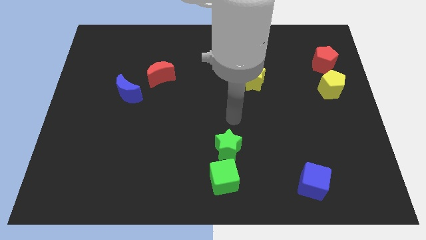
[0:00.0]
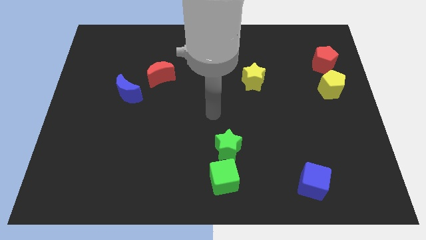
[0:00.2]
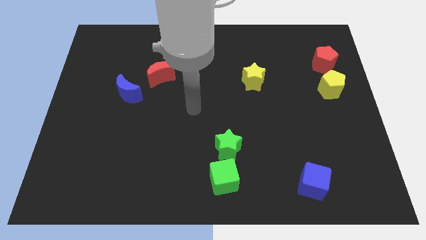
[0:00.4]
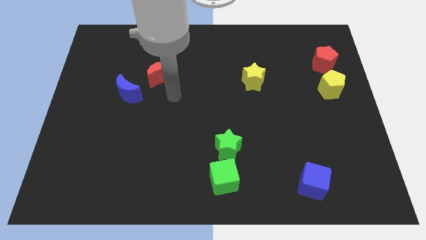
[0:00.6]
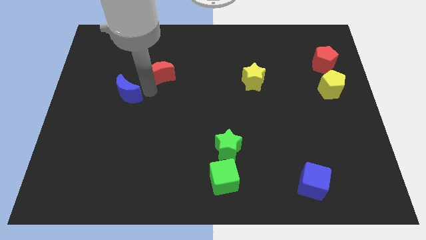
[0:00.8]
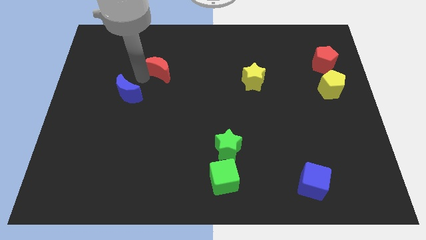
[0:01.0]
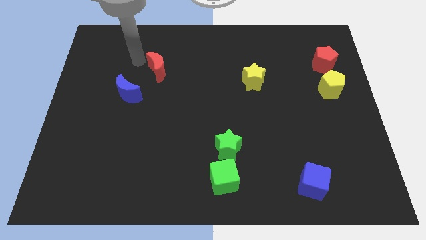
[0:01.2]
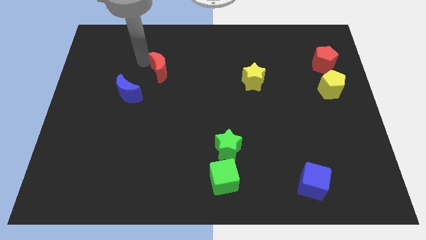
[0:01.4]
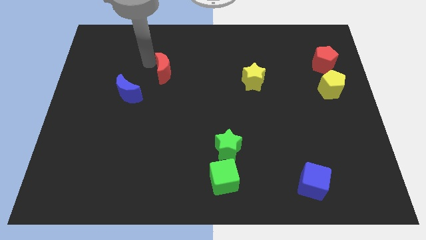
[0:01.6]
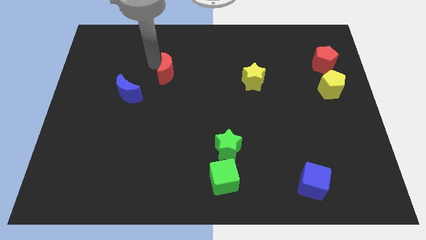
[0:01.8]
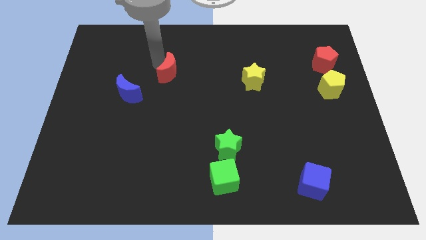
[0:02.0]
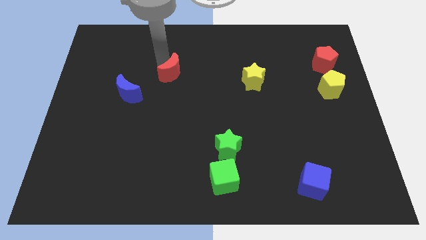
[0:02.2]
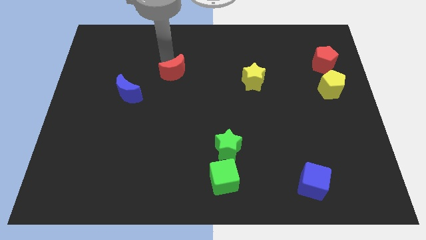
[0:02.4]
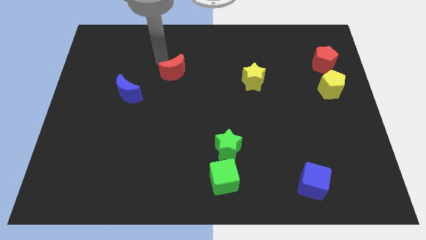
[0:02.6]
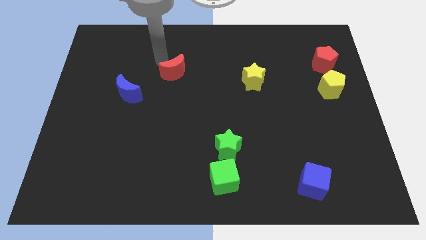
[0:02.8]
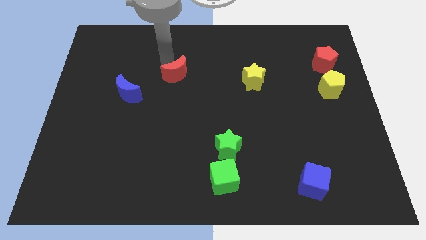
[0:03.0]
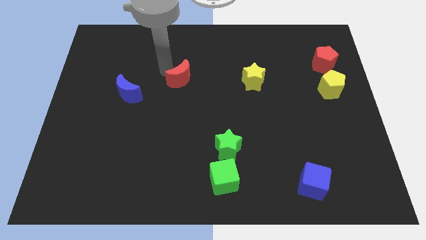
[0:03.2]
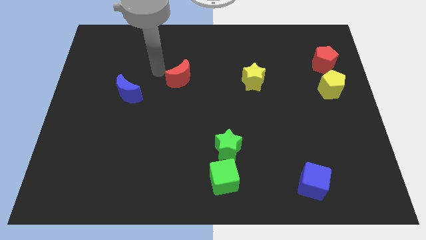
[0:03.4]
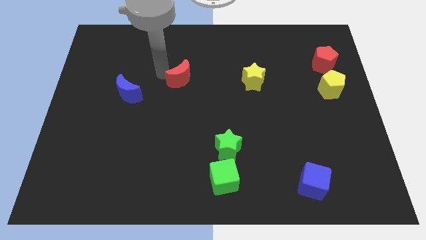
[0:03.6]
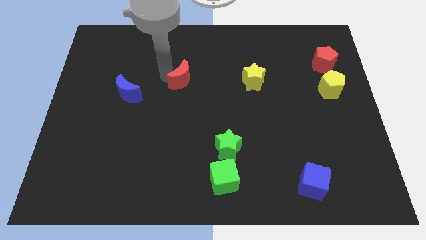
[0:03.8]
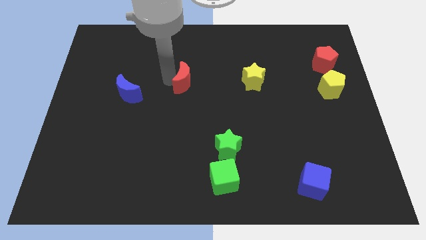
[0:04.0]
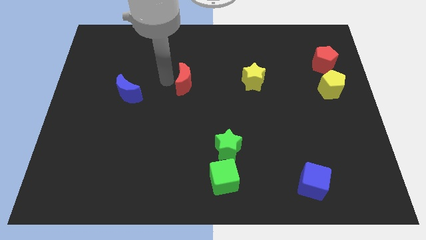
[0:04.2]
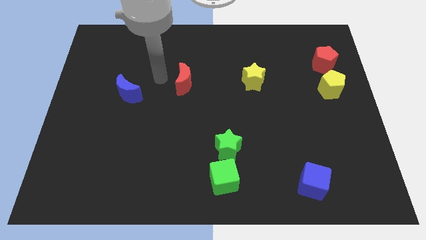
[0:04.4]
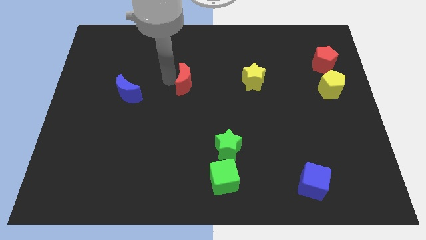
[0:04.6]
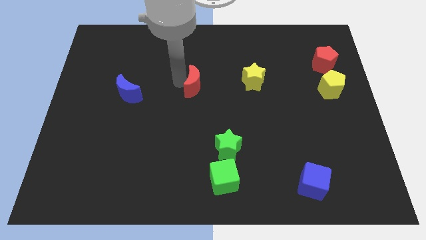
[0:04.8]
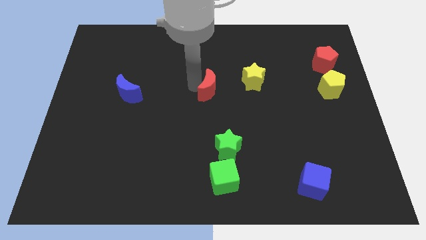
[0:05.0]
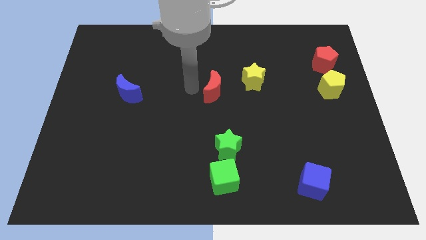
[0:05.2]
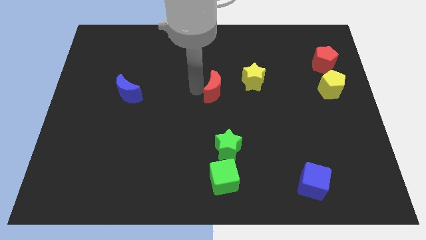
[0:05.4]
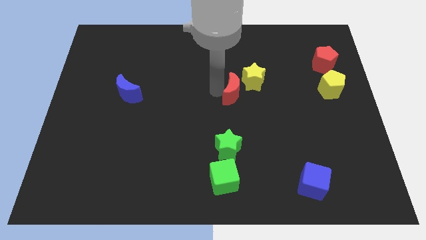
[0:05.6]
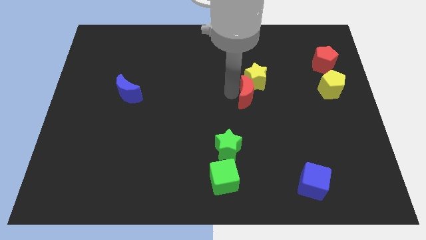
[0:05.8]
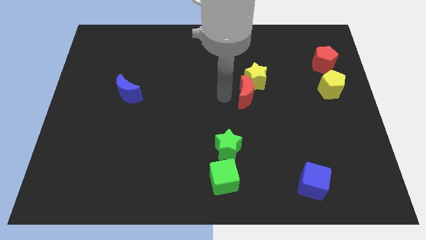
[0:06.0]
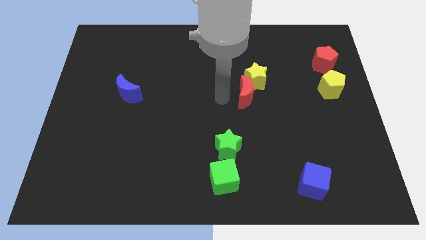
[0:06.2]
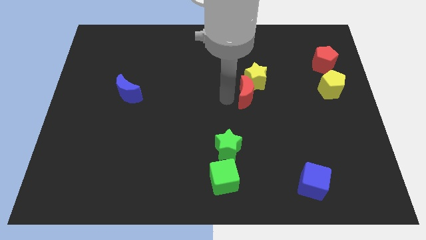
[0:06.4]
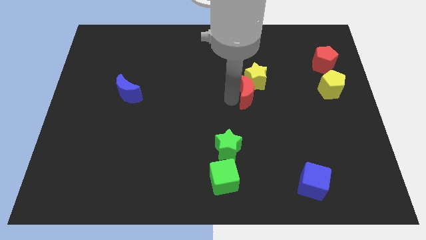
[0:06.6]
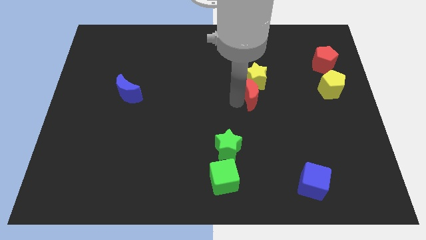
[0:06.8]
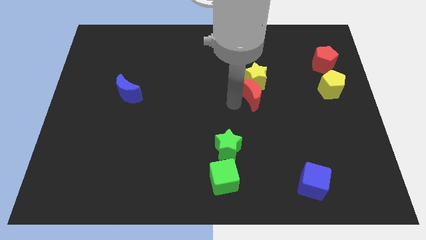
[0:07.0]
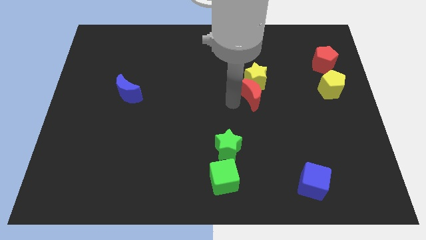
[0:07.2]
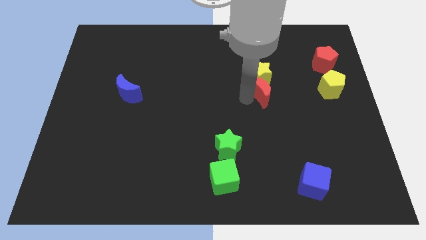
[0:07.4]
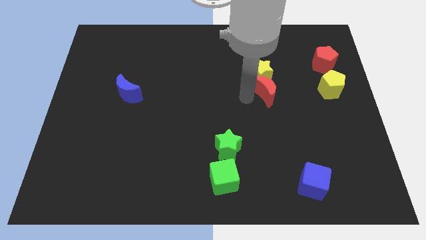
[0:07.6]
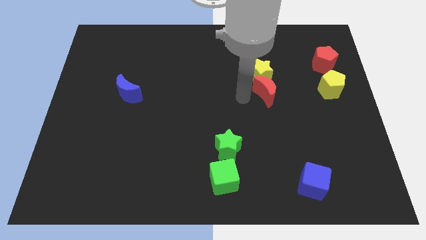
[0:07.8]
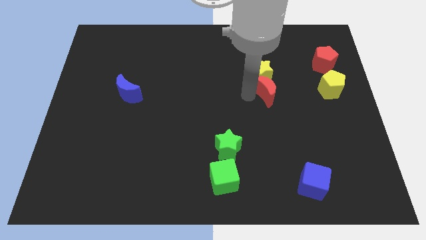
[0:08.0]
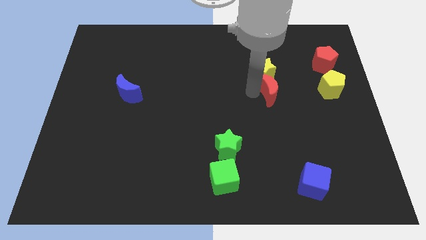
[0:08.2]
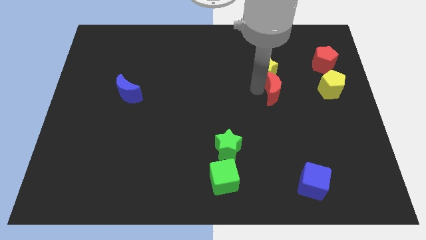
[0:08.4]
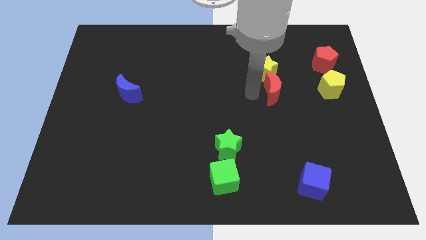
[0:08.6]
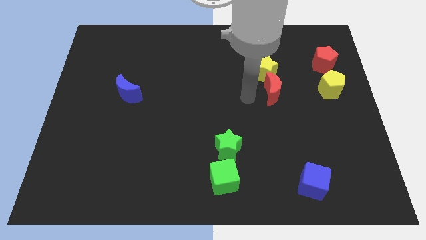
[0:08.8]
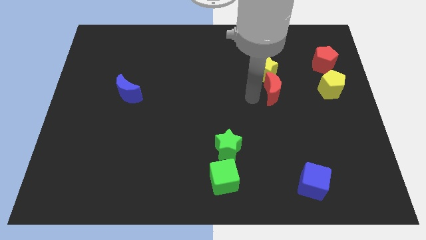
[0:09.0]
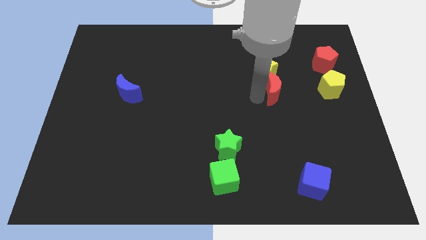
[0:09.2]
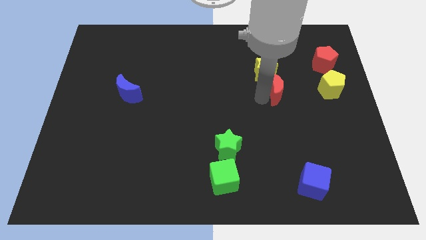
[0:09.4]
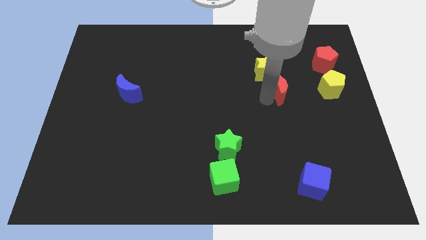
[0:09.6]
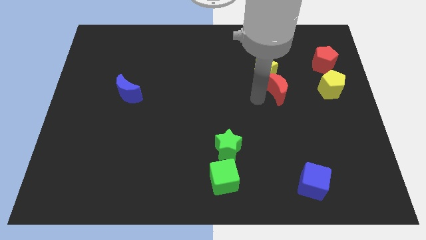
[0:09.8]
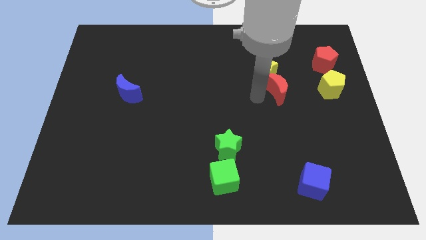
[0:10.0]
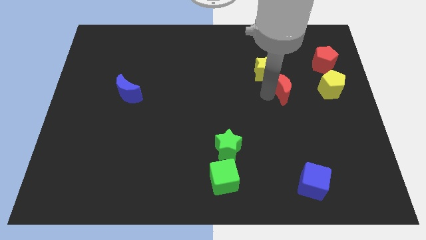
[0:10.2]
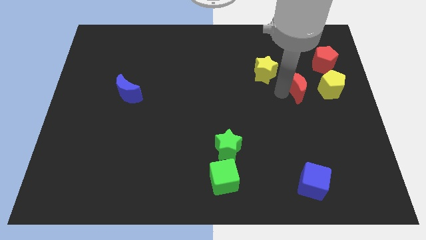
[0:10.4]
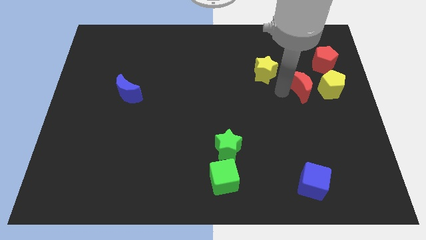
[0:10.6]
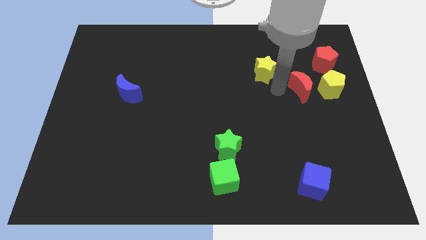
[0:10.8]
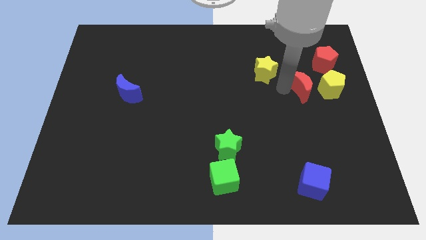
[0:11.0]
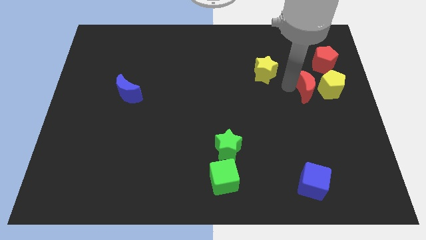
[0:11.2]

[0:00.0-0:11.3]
push the red moon to the yellow pentagon

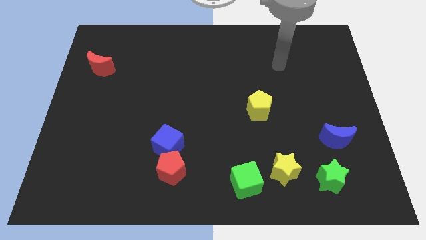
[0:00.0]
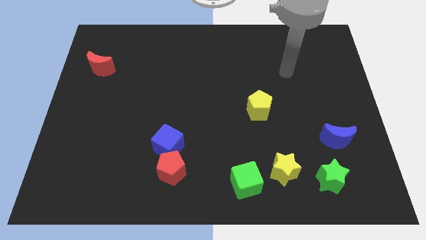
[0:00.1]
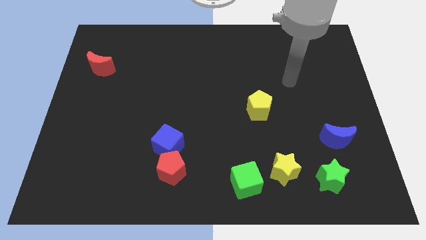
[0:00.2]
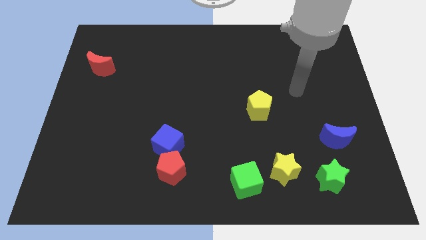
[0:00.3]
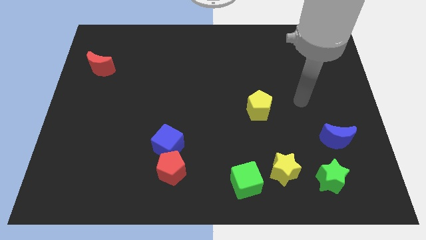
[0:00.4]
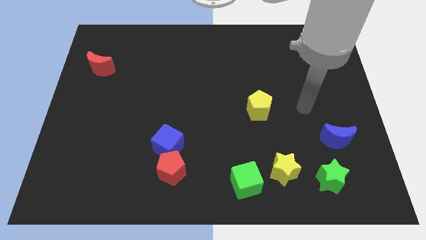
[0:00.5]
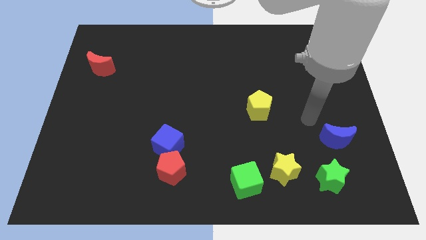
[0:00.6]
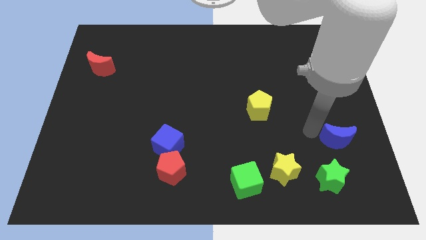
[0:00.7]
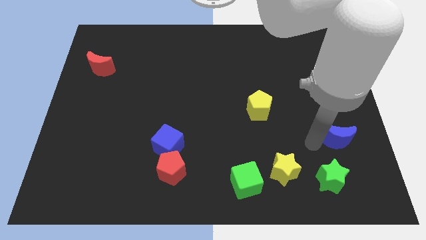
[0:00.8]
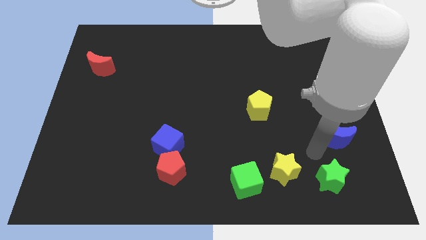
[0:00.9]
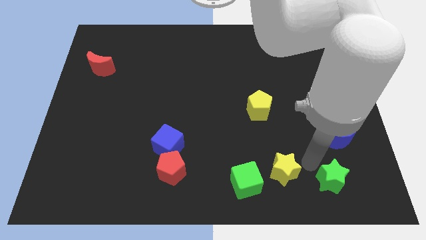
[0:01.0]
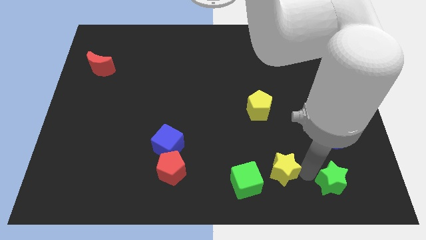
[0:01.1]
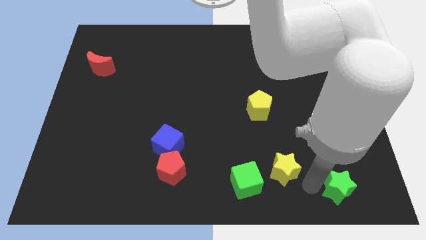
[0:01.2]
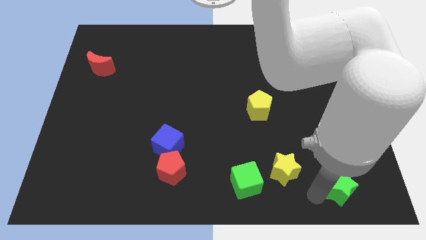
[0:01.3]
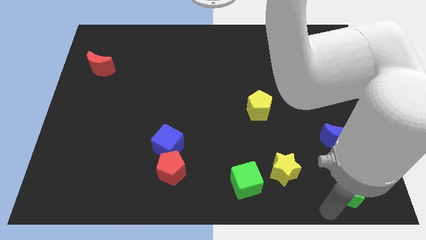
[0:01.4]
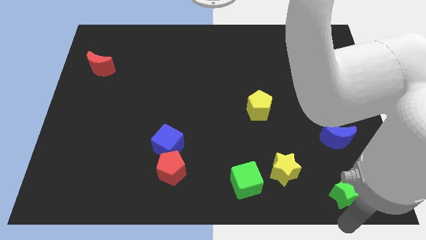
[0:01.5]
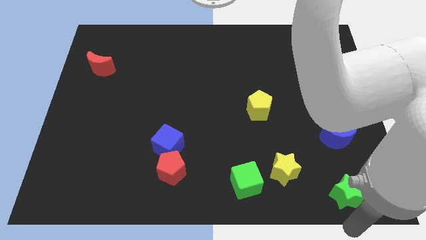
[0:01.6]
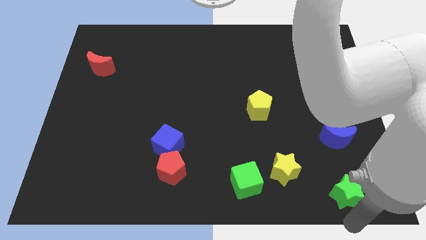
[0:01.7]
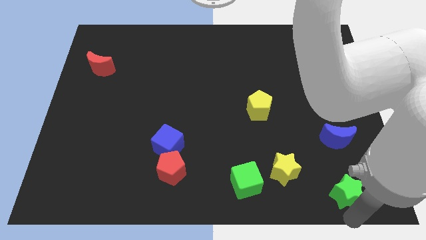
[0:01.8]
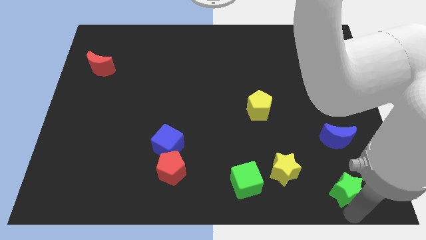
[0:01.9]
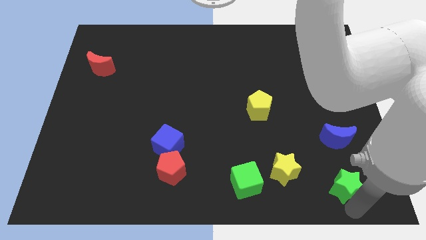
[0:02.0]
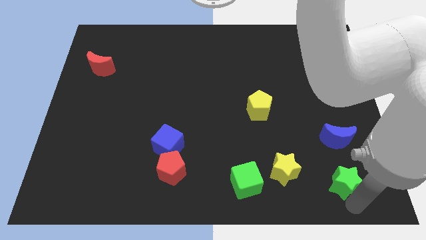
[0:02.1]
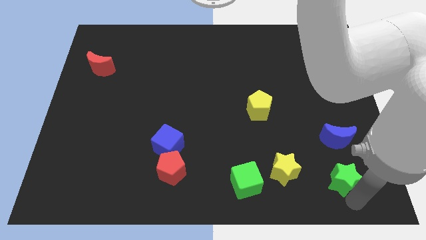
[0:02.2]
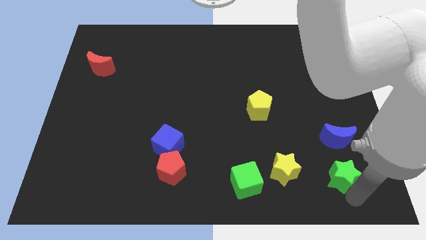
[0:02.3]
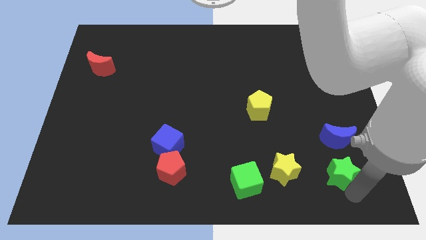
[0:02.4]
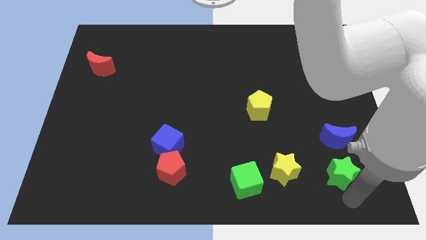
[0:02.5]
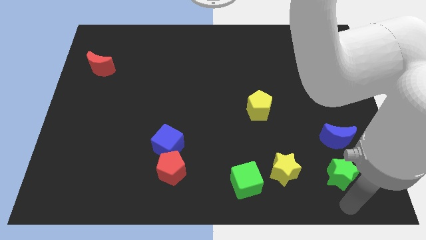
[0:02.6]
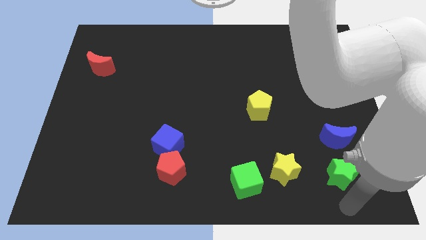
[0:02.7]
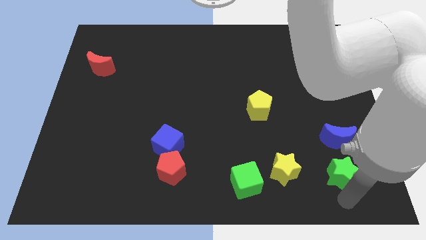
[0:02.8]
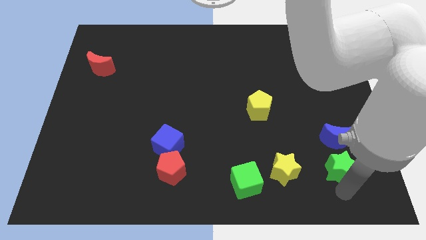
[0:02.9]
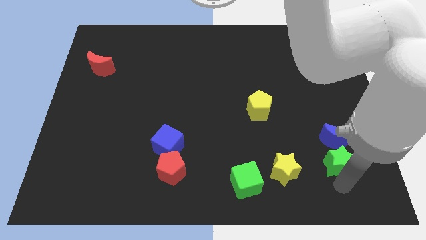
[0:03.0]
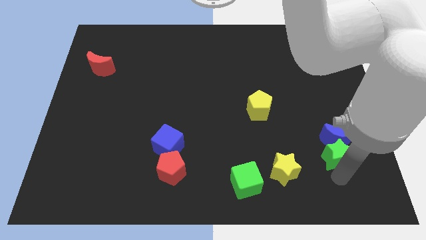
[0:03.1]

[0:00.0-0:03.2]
slide the green star close to the blue moon
